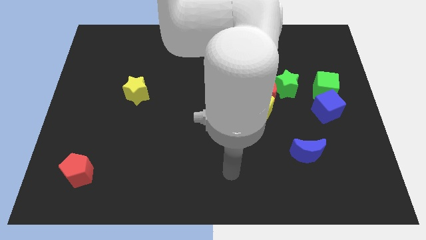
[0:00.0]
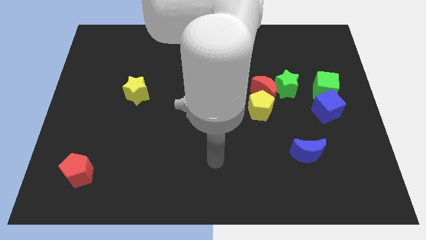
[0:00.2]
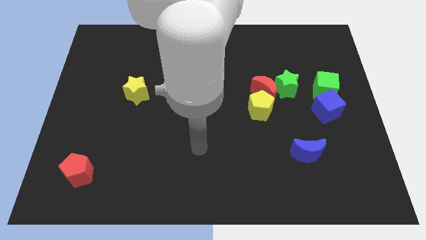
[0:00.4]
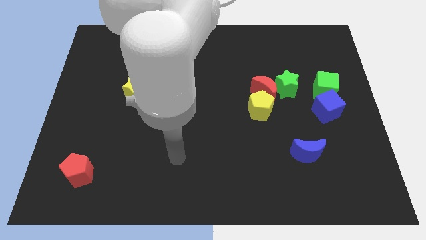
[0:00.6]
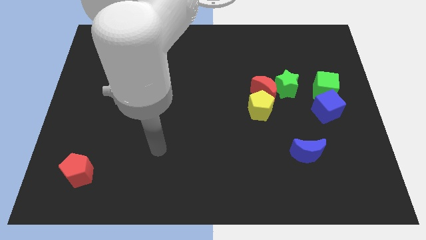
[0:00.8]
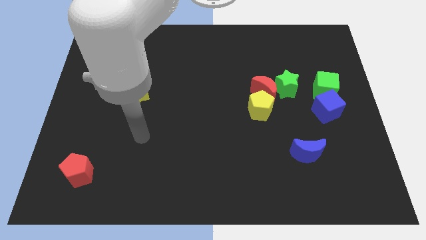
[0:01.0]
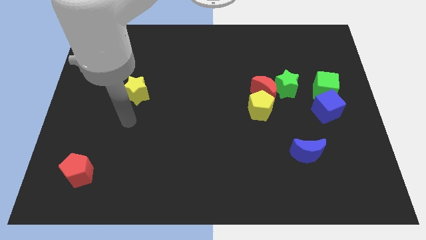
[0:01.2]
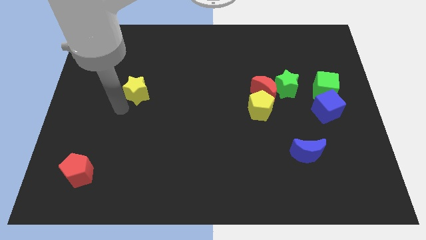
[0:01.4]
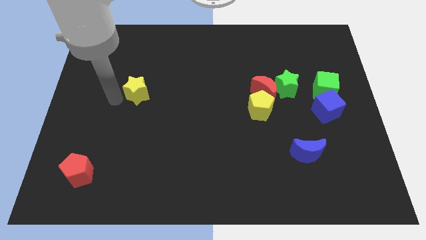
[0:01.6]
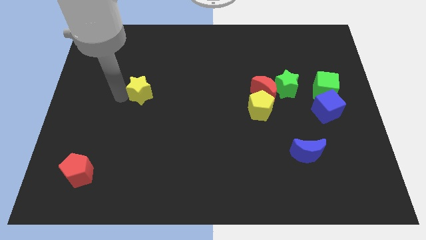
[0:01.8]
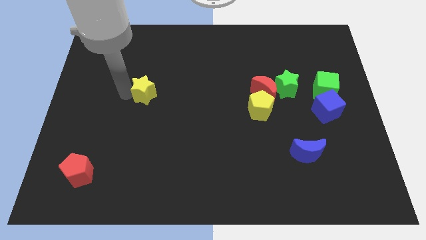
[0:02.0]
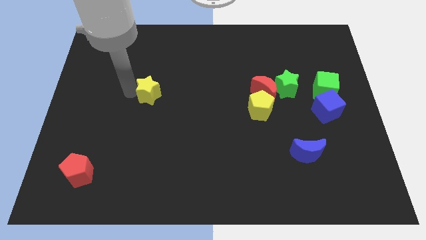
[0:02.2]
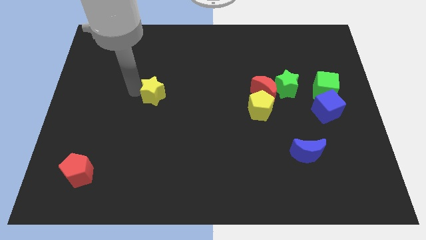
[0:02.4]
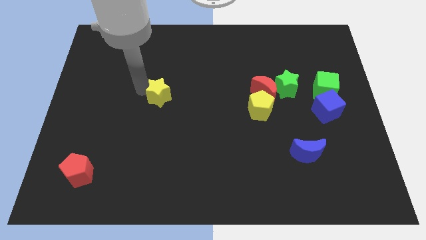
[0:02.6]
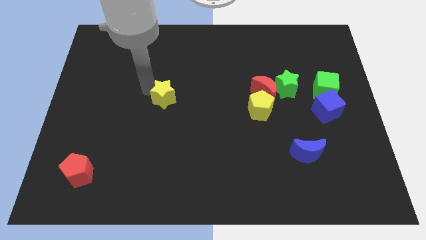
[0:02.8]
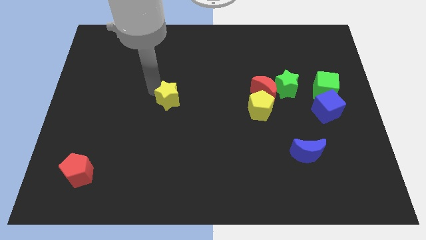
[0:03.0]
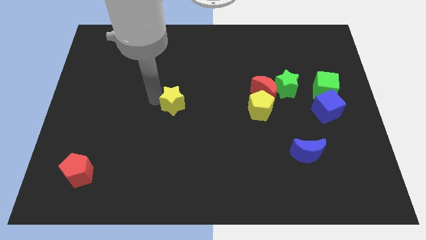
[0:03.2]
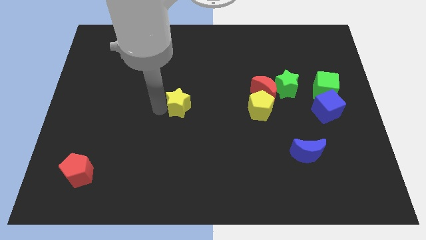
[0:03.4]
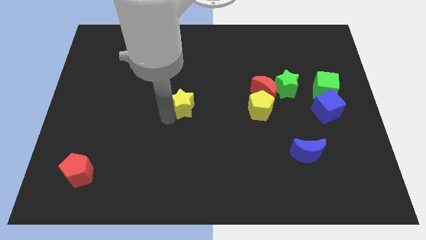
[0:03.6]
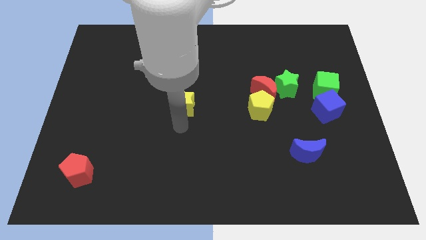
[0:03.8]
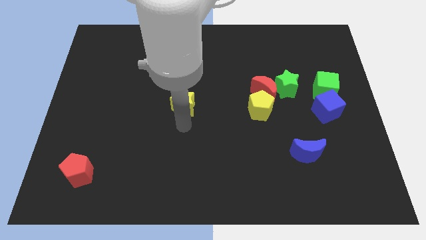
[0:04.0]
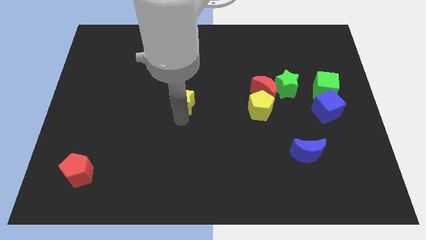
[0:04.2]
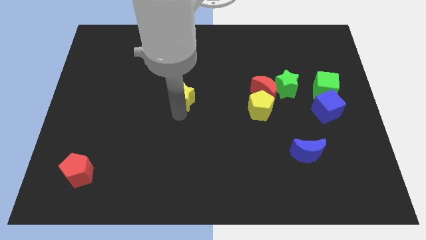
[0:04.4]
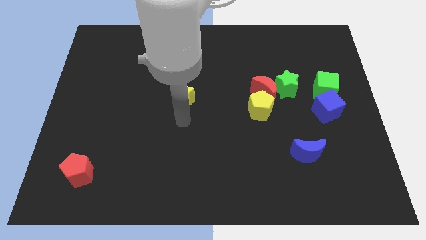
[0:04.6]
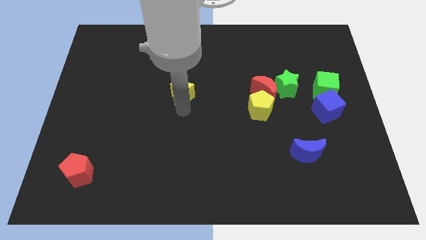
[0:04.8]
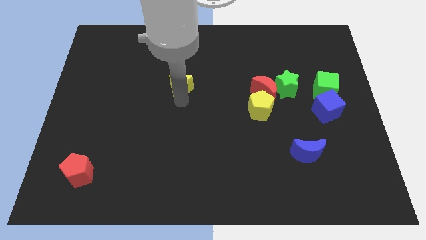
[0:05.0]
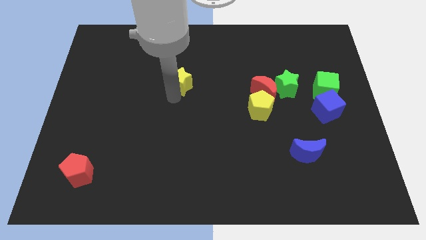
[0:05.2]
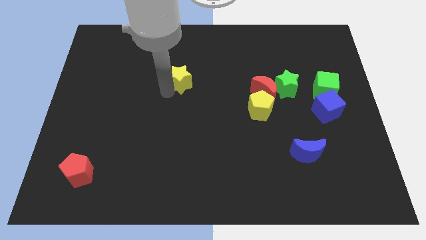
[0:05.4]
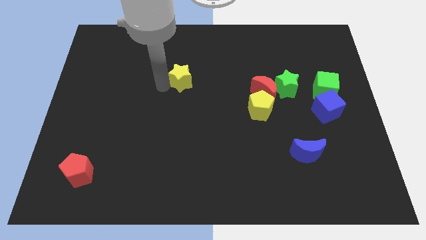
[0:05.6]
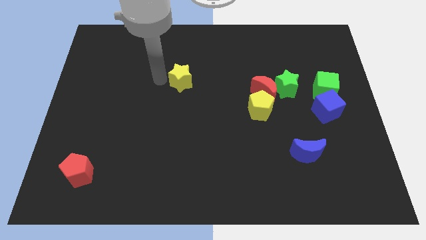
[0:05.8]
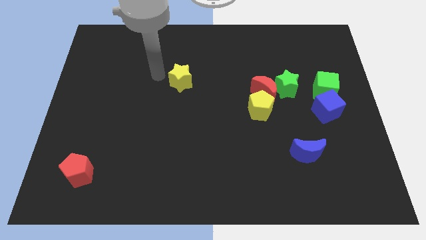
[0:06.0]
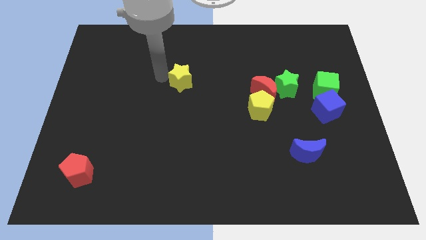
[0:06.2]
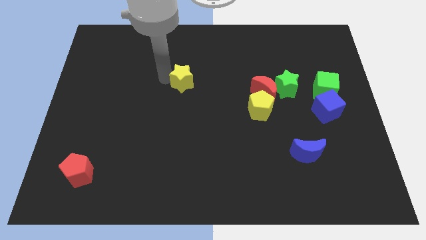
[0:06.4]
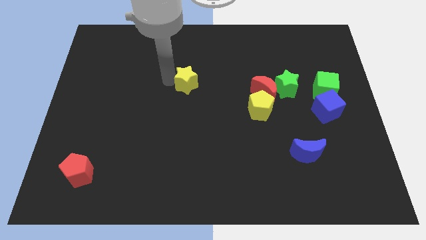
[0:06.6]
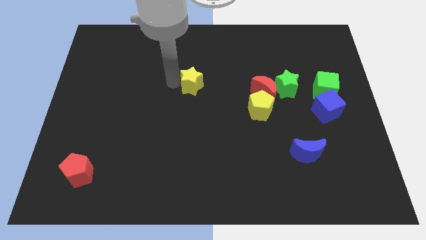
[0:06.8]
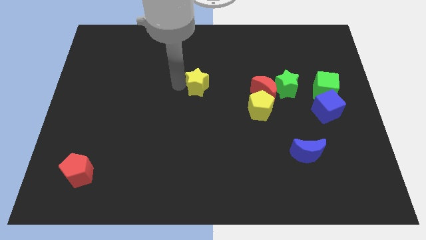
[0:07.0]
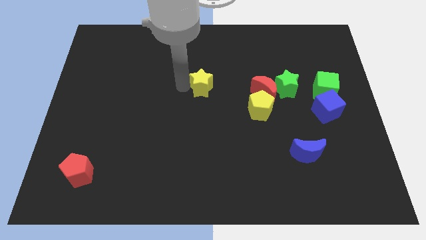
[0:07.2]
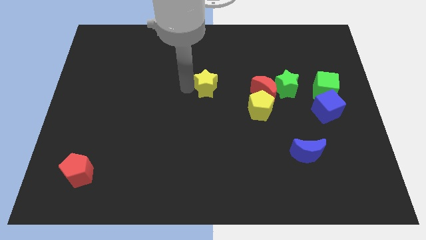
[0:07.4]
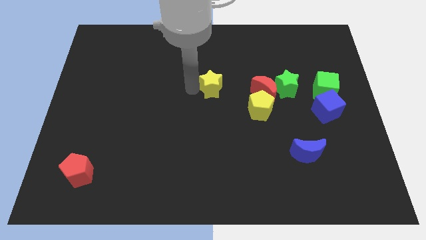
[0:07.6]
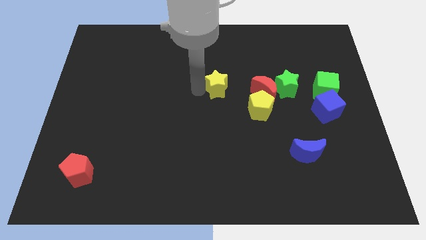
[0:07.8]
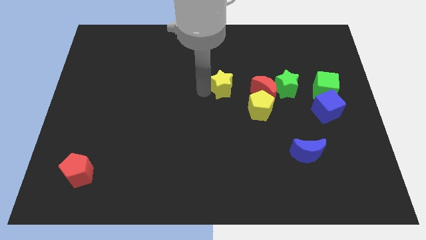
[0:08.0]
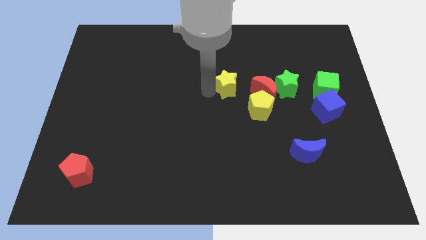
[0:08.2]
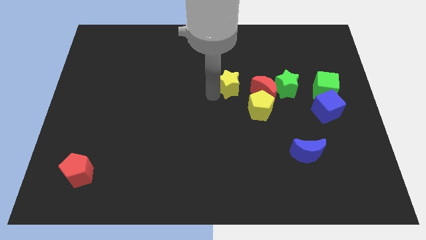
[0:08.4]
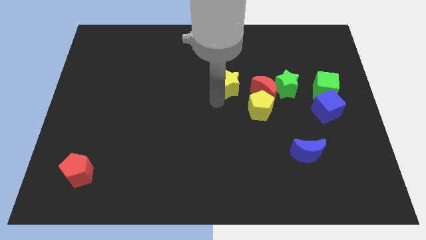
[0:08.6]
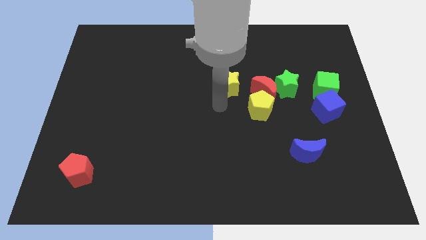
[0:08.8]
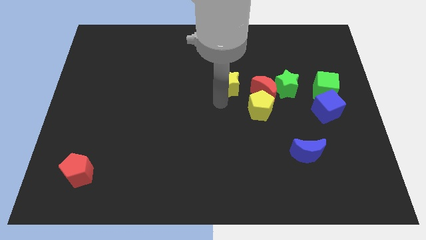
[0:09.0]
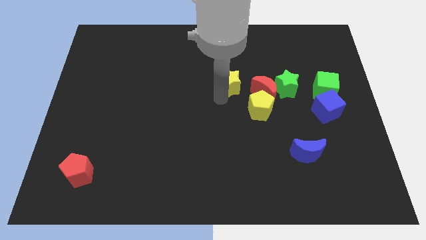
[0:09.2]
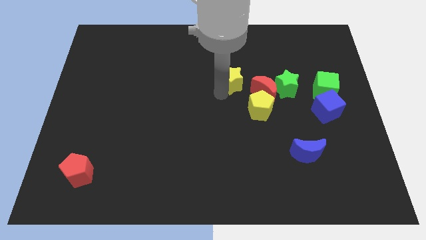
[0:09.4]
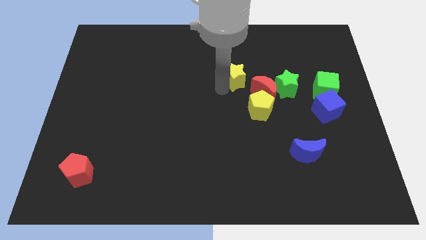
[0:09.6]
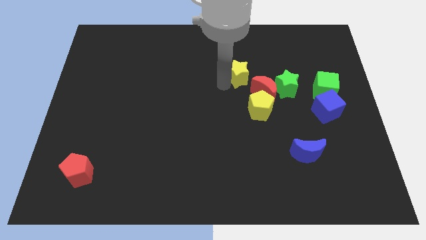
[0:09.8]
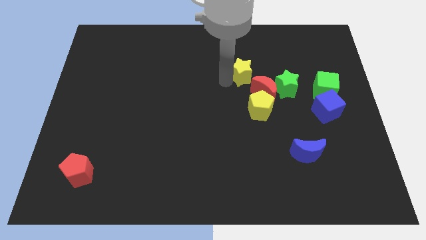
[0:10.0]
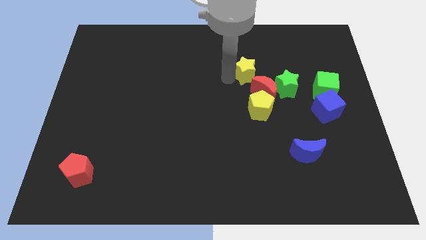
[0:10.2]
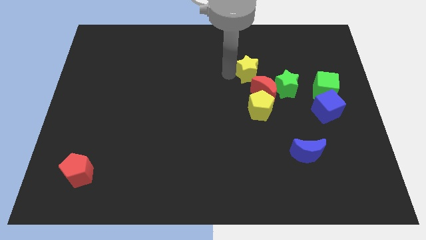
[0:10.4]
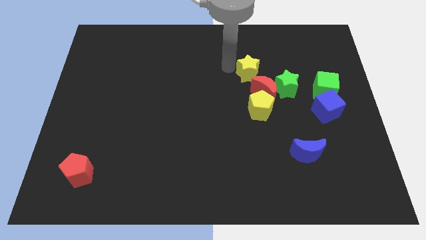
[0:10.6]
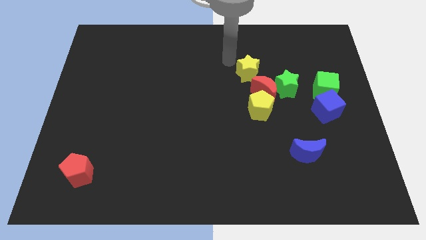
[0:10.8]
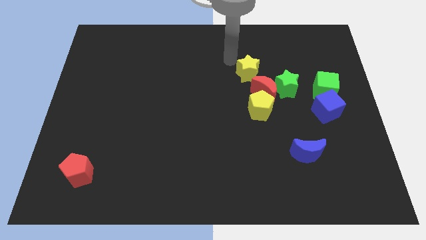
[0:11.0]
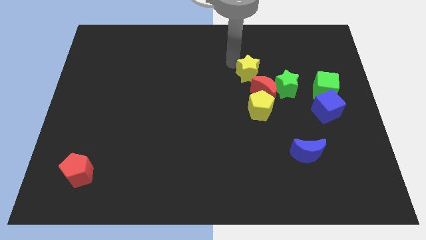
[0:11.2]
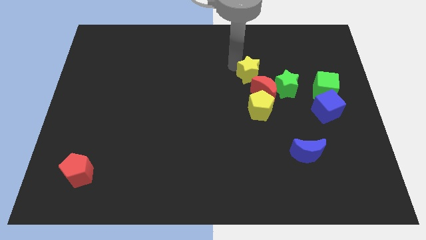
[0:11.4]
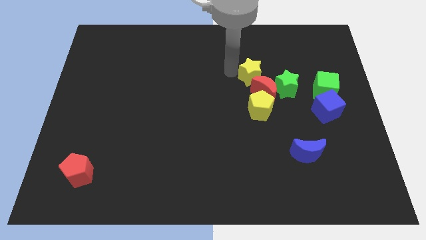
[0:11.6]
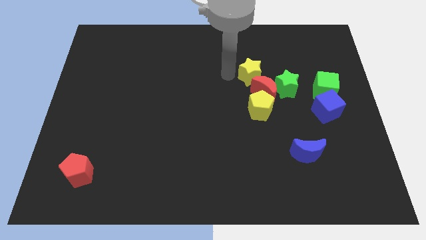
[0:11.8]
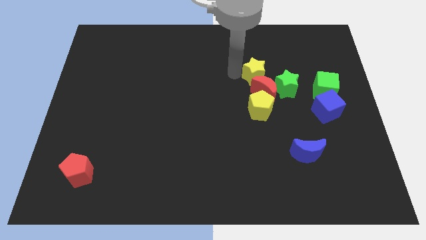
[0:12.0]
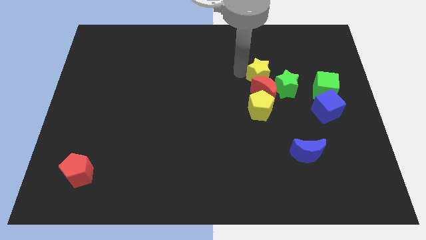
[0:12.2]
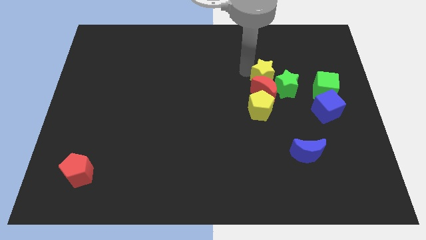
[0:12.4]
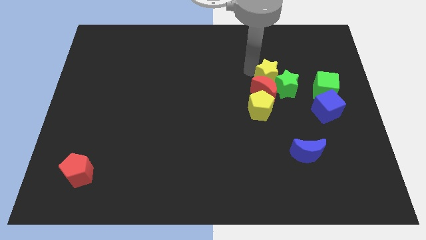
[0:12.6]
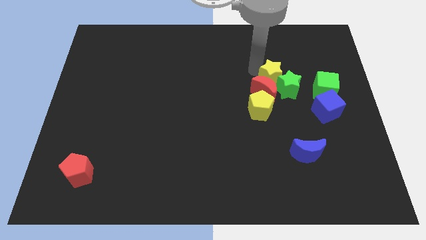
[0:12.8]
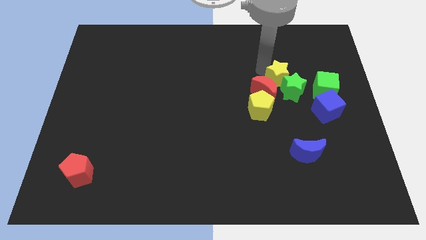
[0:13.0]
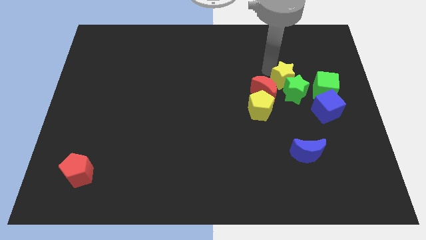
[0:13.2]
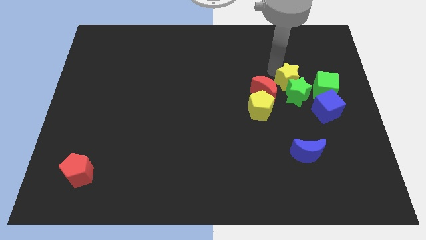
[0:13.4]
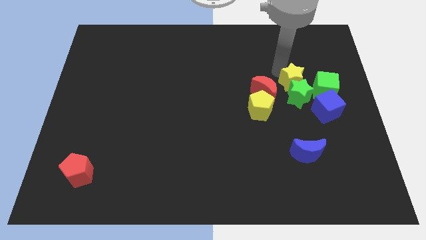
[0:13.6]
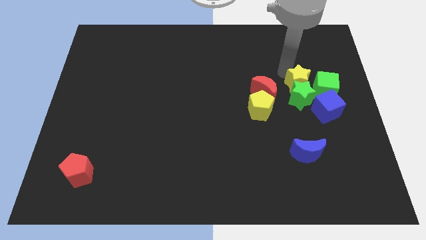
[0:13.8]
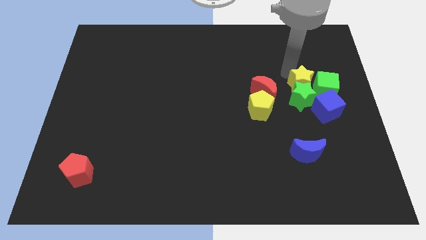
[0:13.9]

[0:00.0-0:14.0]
move the yellow star next to the green cube

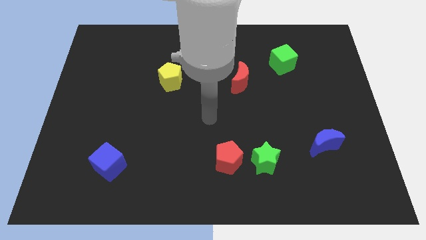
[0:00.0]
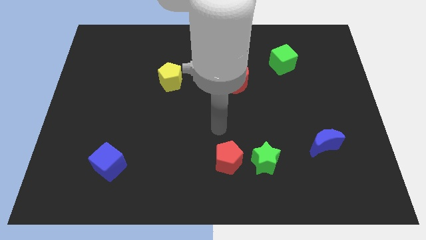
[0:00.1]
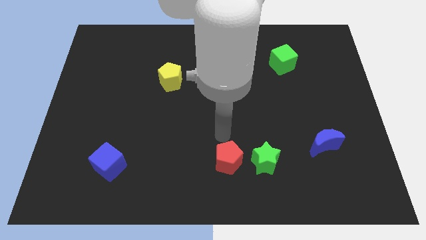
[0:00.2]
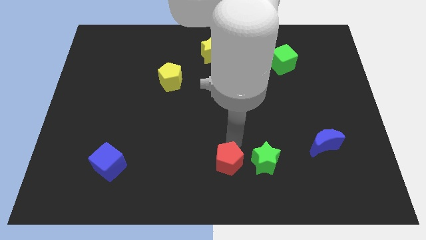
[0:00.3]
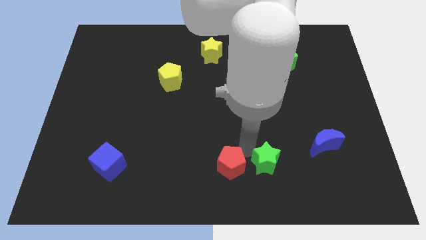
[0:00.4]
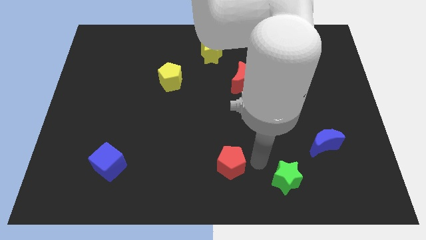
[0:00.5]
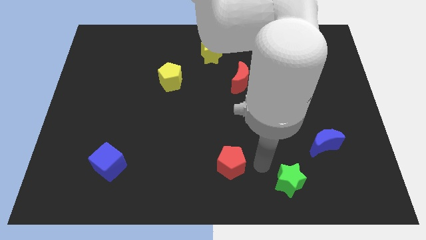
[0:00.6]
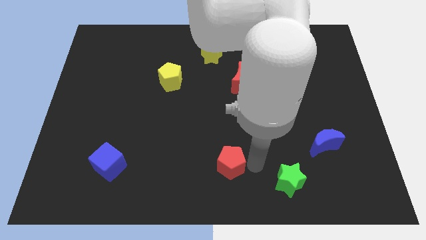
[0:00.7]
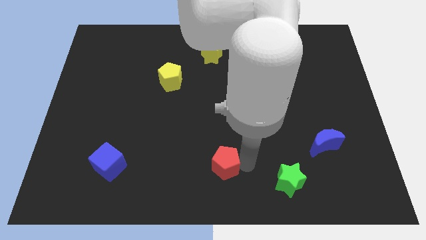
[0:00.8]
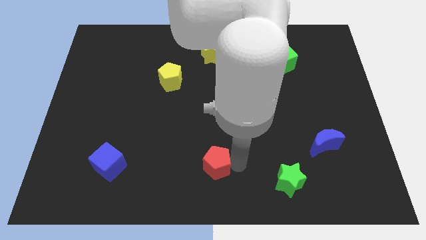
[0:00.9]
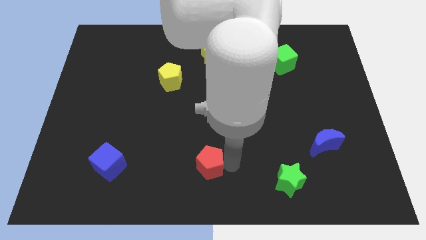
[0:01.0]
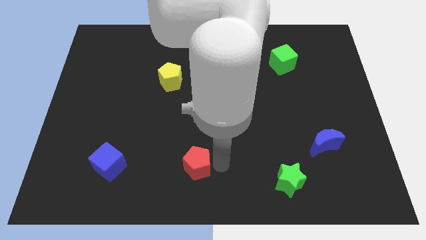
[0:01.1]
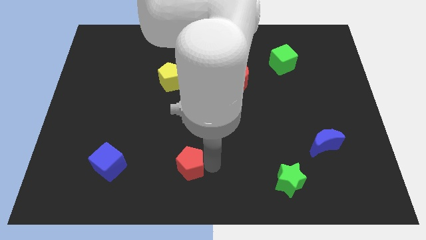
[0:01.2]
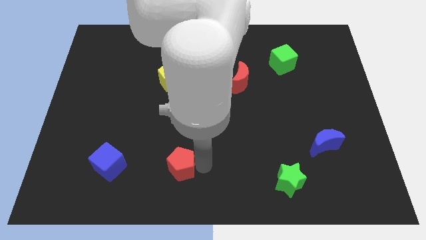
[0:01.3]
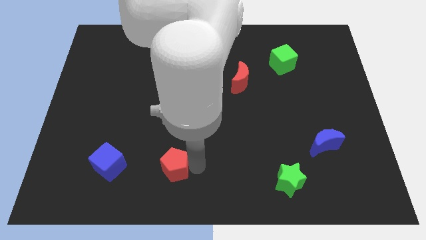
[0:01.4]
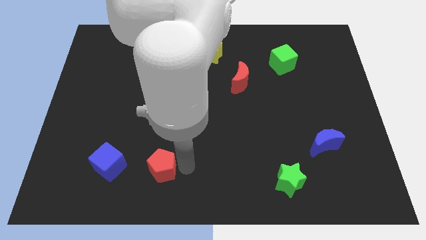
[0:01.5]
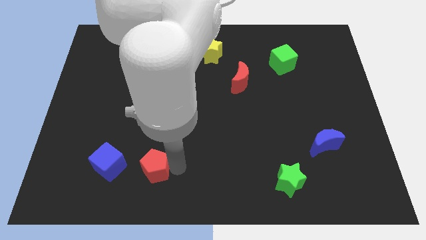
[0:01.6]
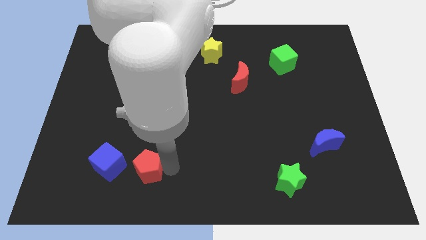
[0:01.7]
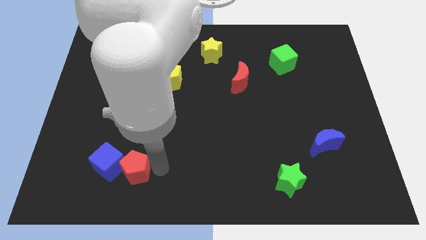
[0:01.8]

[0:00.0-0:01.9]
put the red pentagon to the blue cube
